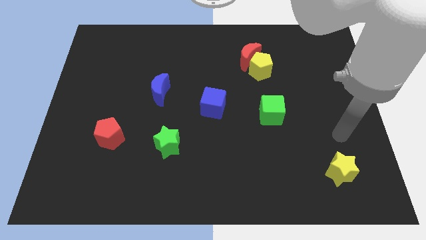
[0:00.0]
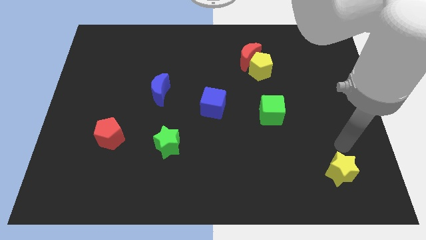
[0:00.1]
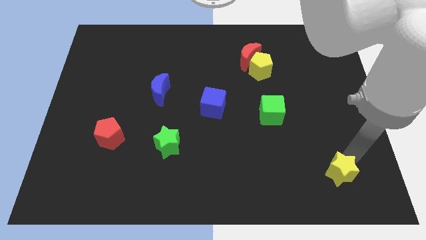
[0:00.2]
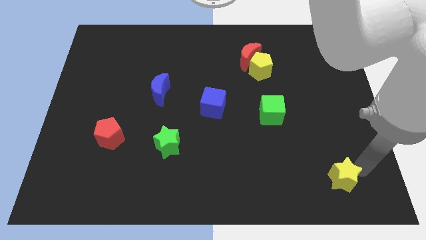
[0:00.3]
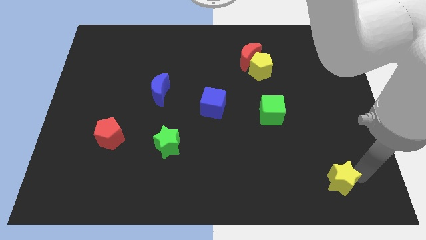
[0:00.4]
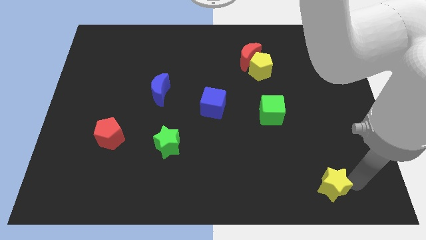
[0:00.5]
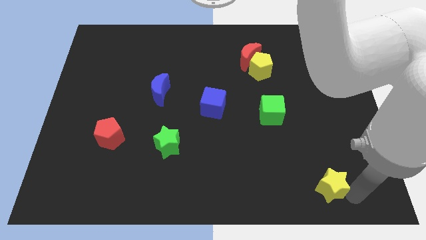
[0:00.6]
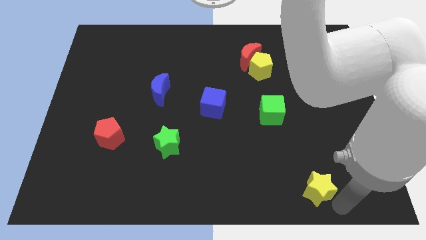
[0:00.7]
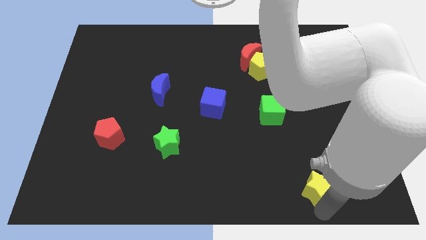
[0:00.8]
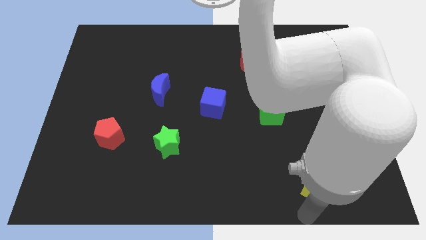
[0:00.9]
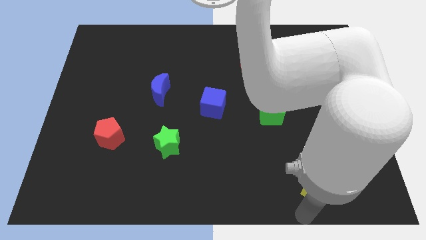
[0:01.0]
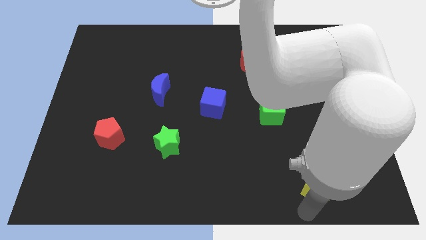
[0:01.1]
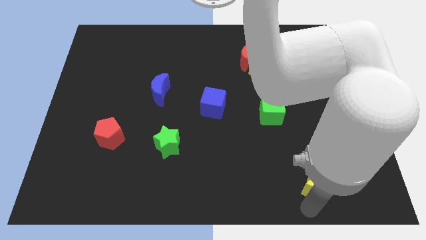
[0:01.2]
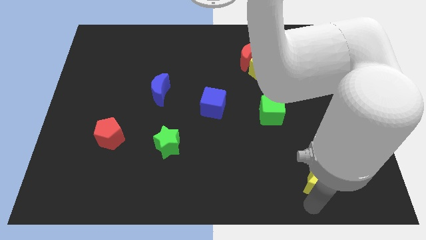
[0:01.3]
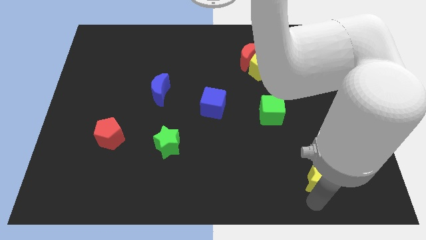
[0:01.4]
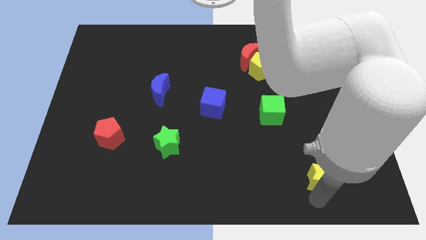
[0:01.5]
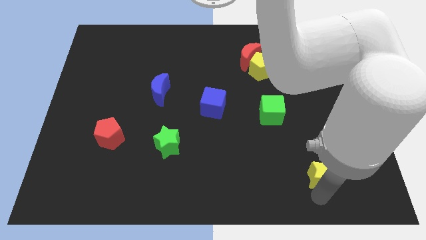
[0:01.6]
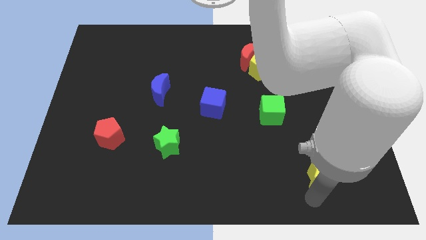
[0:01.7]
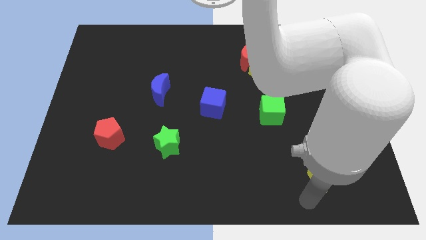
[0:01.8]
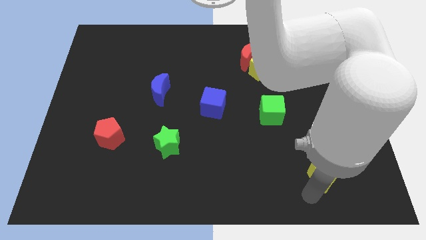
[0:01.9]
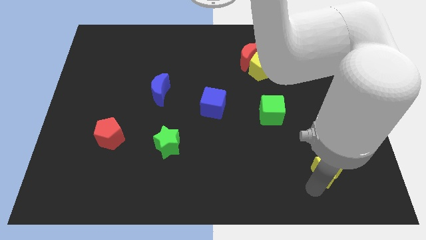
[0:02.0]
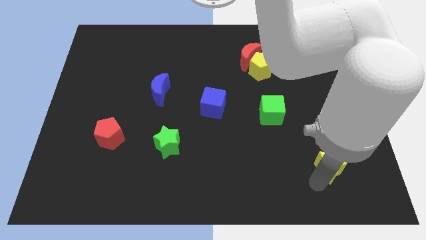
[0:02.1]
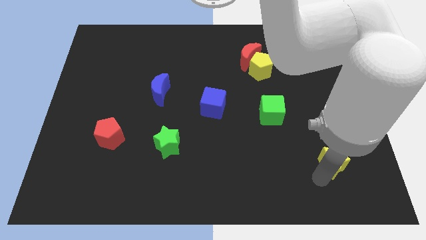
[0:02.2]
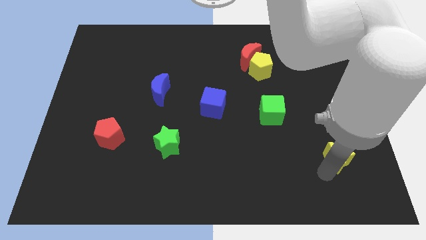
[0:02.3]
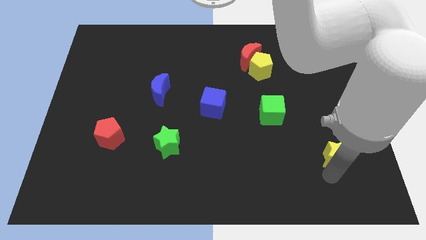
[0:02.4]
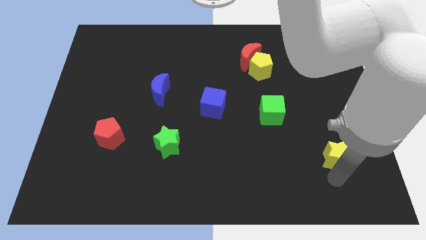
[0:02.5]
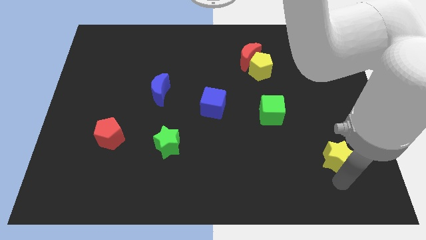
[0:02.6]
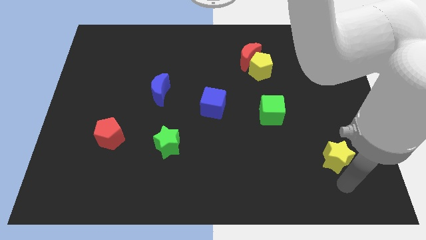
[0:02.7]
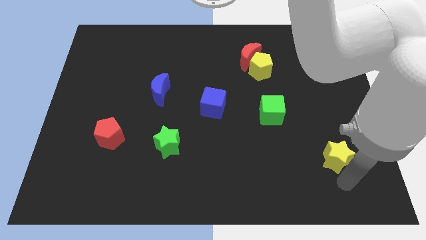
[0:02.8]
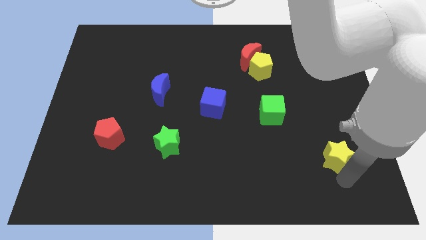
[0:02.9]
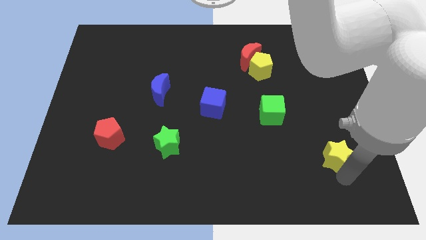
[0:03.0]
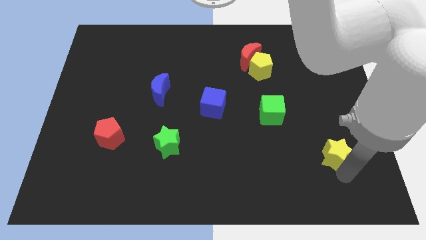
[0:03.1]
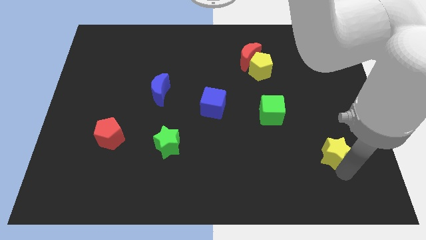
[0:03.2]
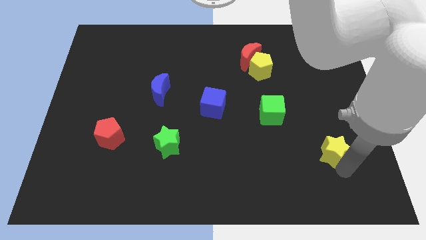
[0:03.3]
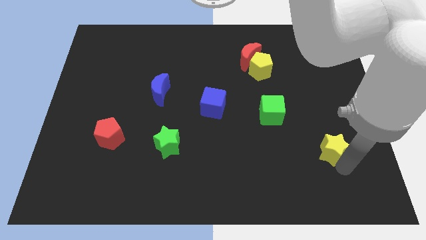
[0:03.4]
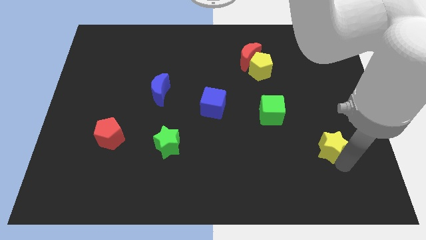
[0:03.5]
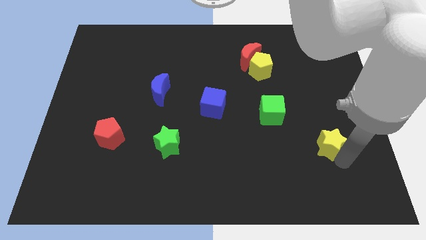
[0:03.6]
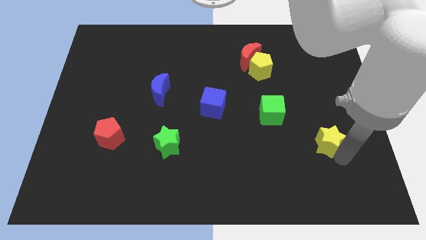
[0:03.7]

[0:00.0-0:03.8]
slightly move the yellow star up

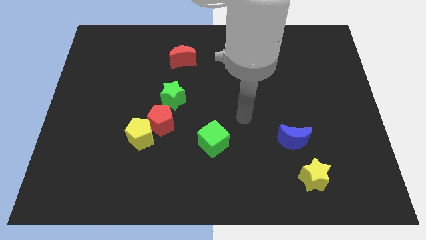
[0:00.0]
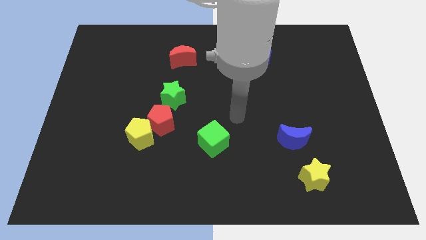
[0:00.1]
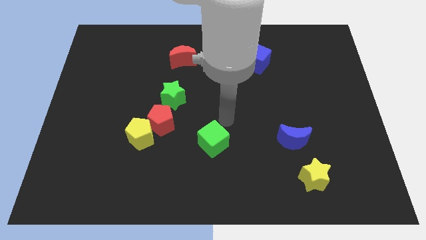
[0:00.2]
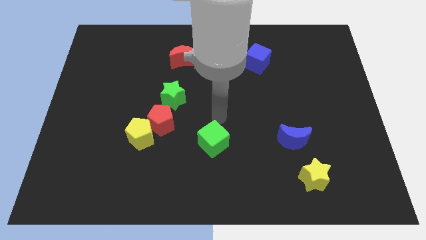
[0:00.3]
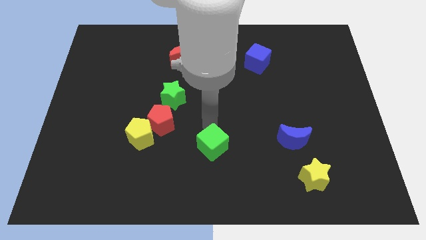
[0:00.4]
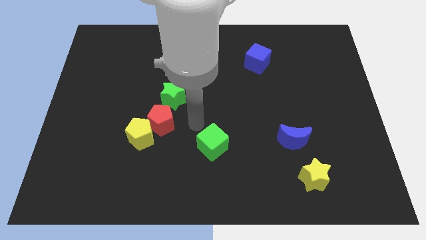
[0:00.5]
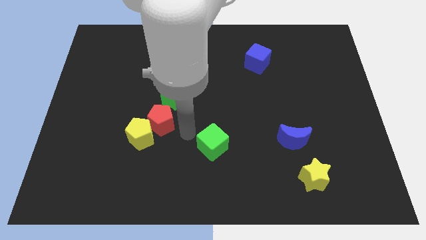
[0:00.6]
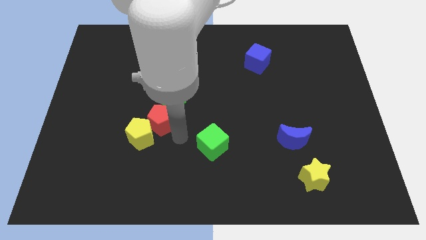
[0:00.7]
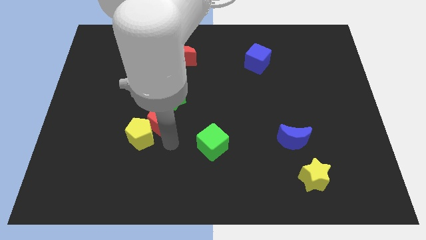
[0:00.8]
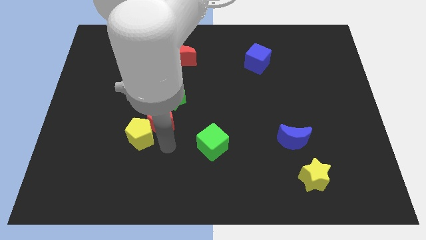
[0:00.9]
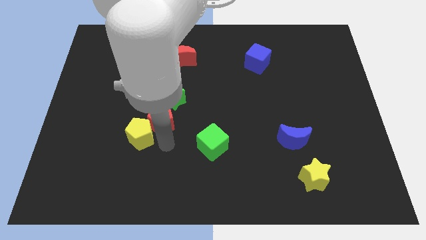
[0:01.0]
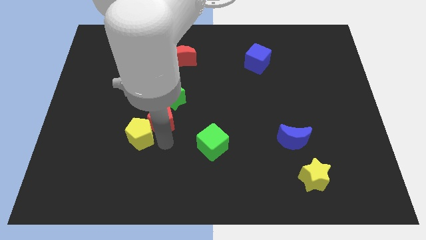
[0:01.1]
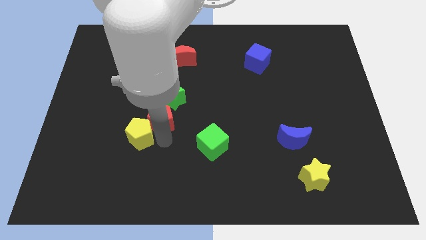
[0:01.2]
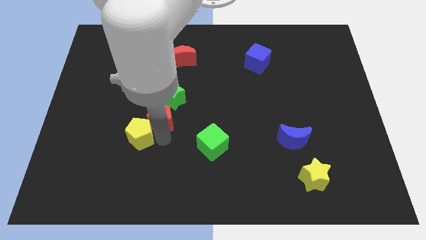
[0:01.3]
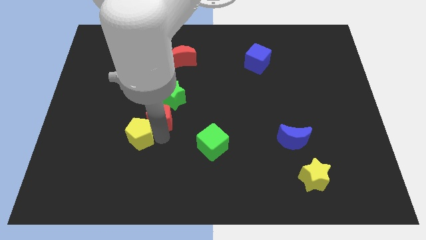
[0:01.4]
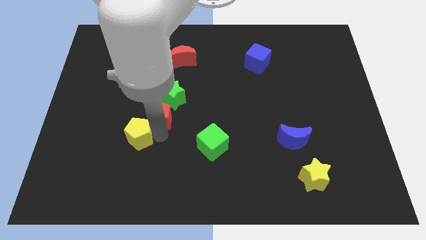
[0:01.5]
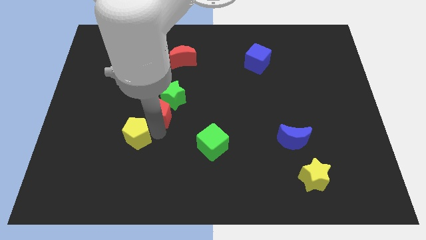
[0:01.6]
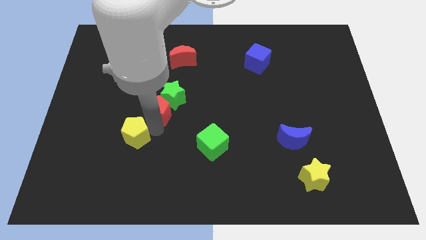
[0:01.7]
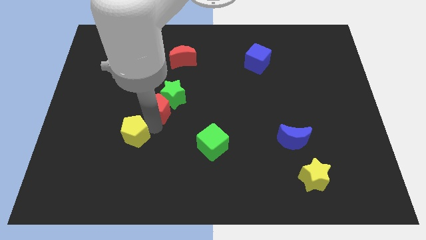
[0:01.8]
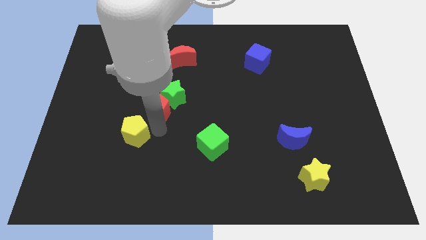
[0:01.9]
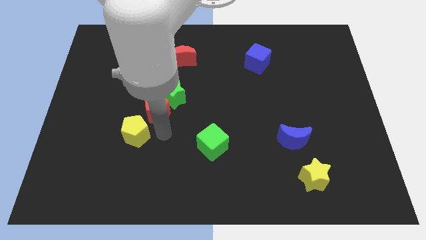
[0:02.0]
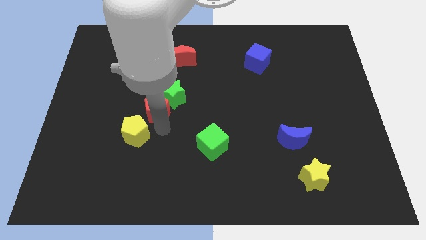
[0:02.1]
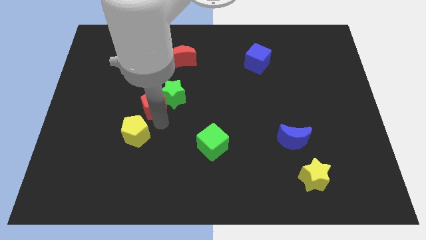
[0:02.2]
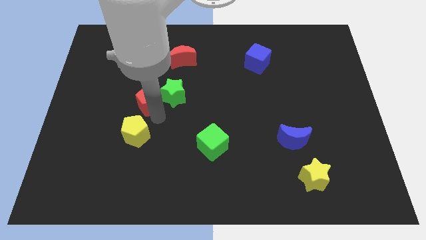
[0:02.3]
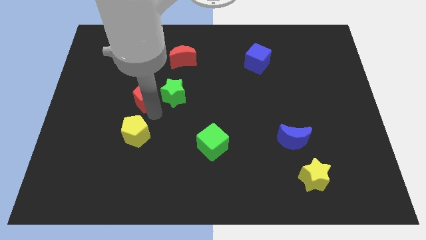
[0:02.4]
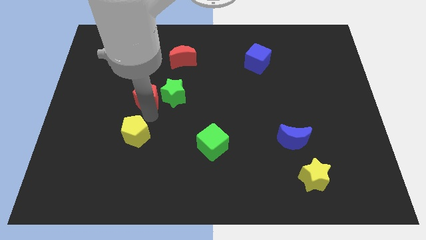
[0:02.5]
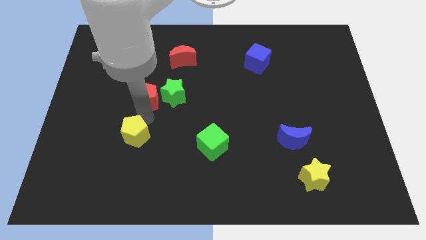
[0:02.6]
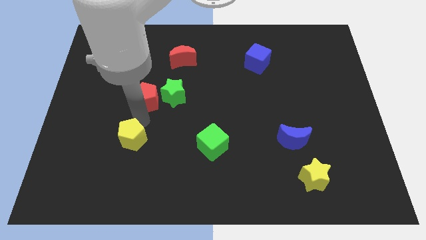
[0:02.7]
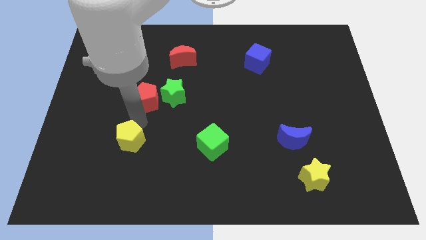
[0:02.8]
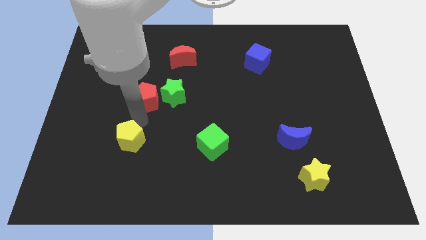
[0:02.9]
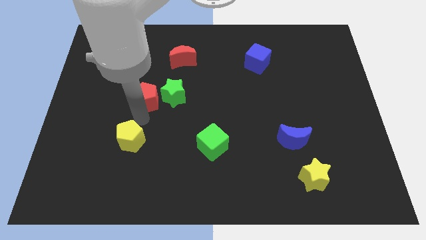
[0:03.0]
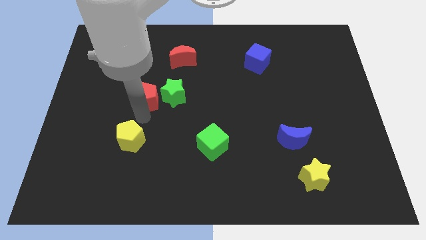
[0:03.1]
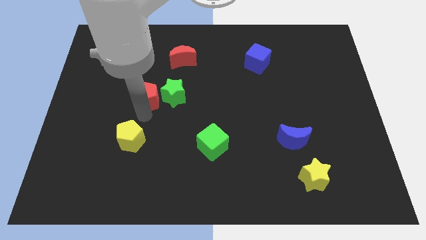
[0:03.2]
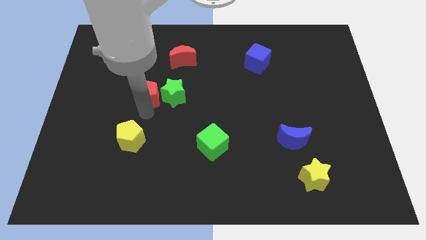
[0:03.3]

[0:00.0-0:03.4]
push the red pentagon upwards a little

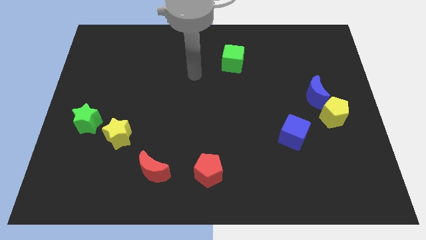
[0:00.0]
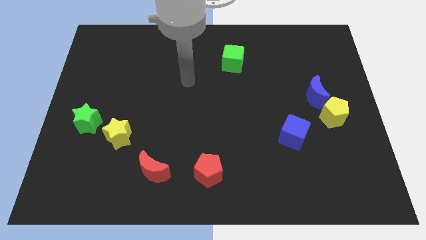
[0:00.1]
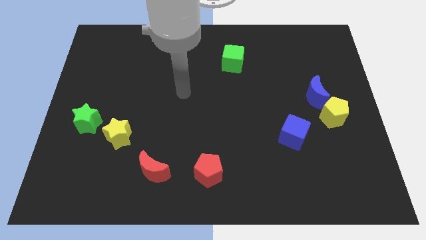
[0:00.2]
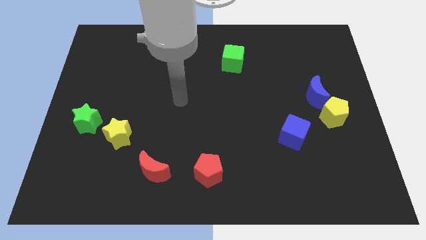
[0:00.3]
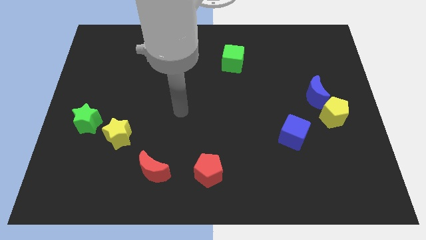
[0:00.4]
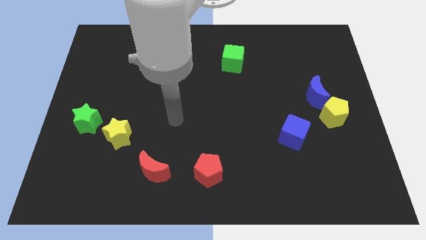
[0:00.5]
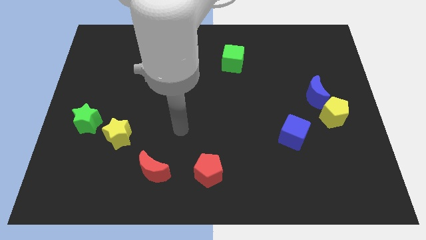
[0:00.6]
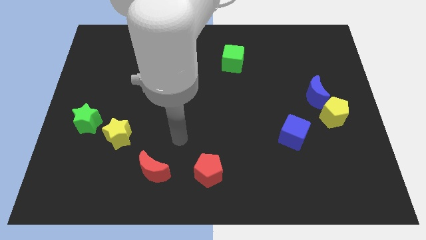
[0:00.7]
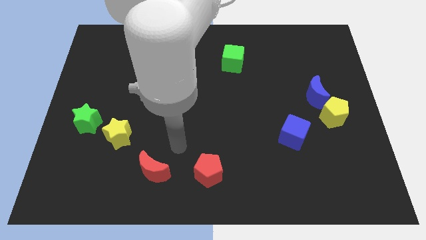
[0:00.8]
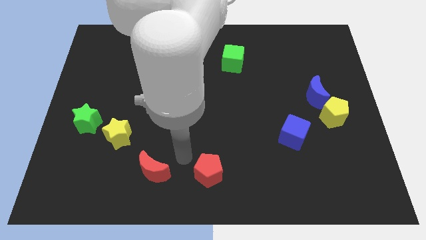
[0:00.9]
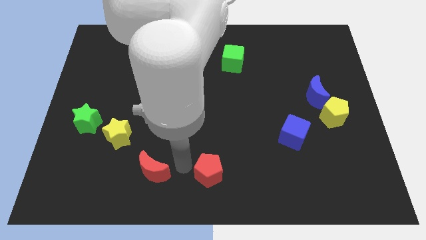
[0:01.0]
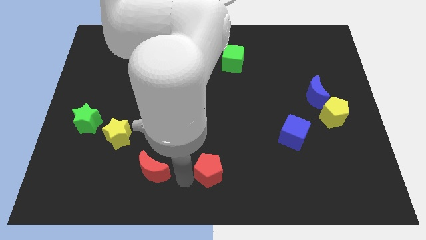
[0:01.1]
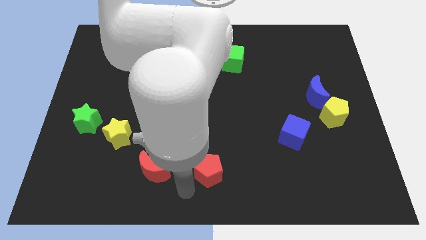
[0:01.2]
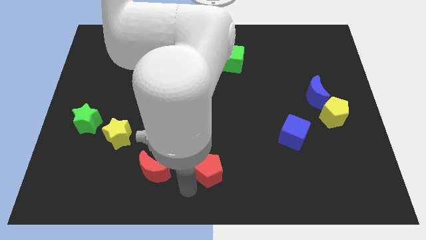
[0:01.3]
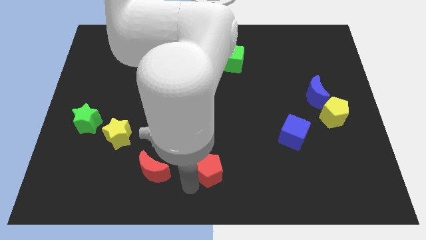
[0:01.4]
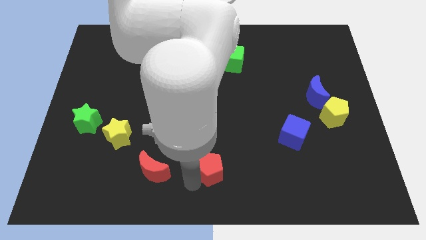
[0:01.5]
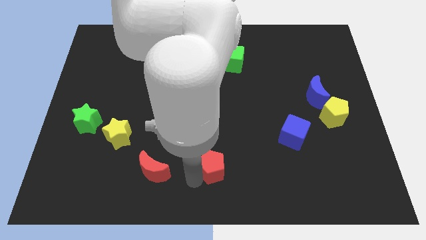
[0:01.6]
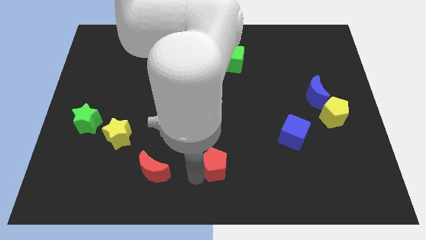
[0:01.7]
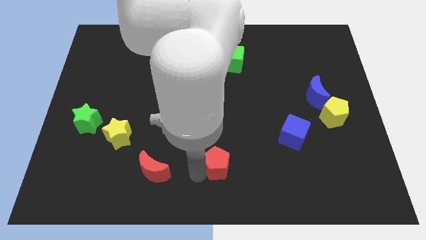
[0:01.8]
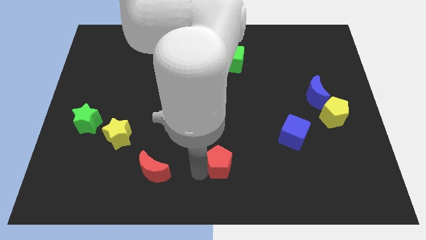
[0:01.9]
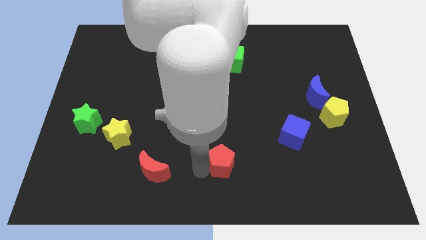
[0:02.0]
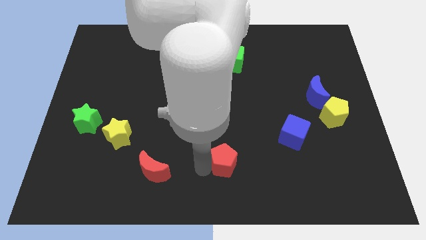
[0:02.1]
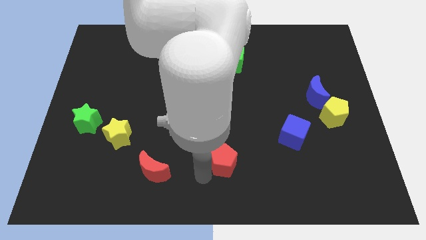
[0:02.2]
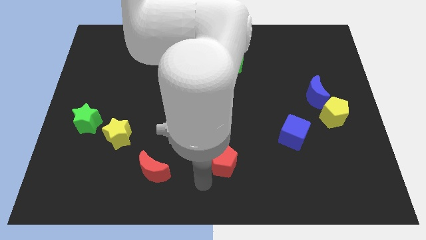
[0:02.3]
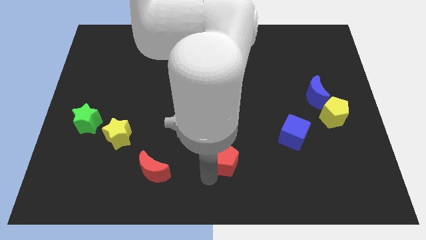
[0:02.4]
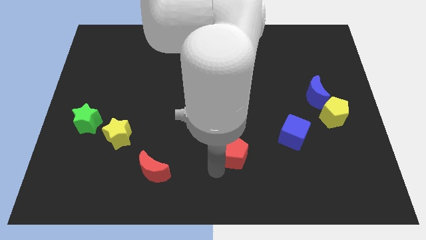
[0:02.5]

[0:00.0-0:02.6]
push the red pentagon up and to the right somewhat
